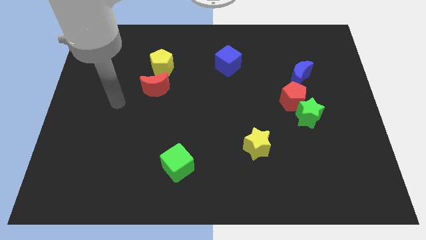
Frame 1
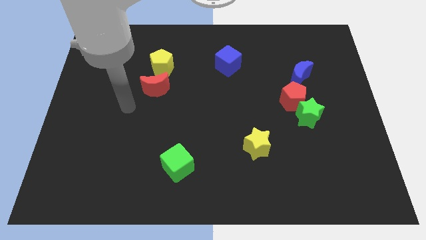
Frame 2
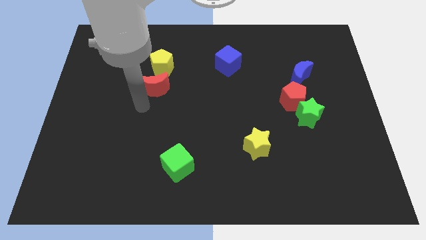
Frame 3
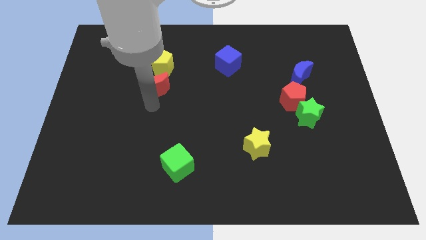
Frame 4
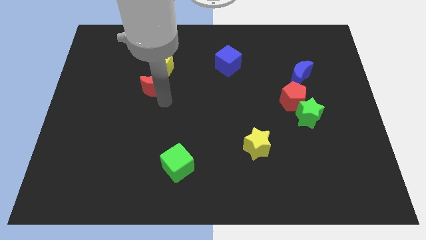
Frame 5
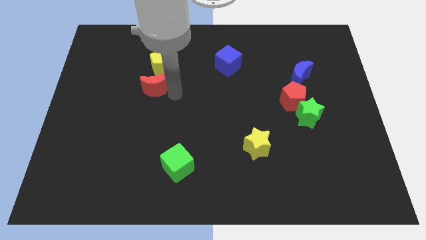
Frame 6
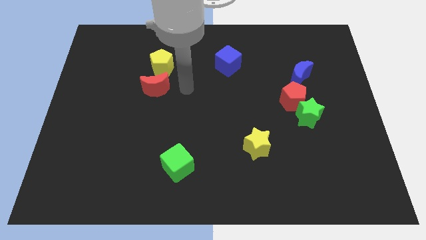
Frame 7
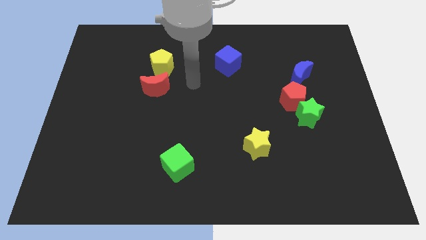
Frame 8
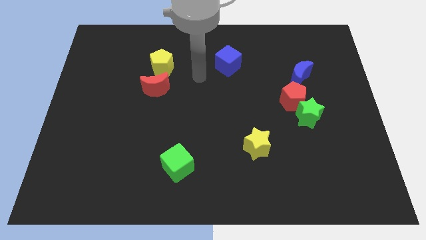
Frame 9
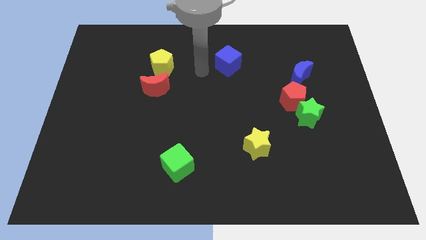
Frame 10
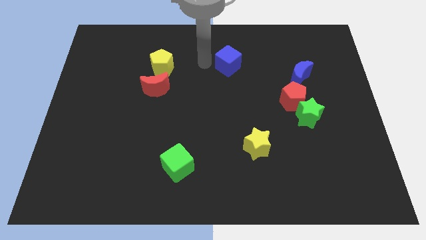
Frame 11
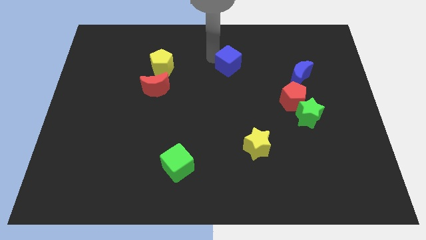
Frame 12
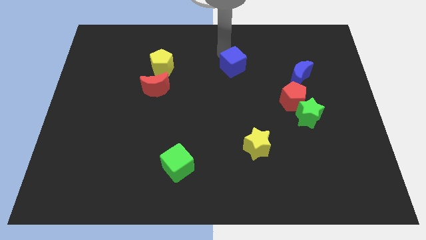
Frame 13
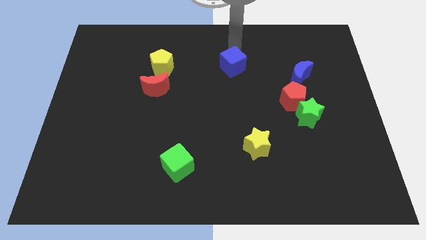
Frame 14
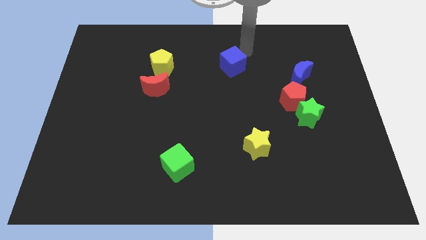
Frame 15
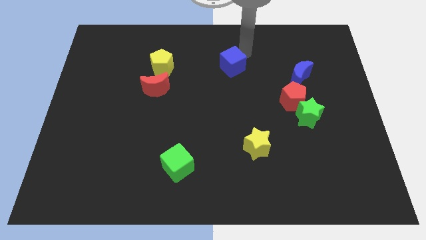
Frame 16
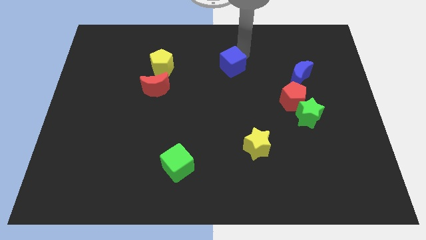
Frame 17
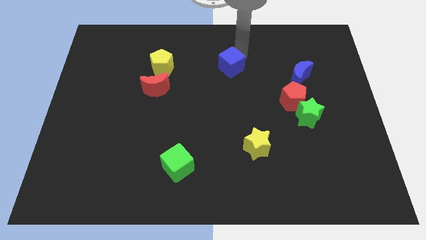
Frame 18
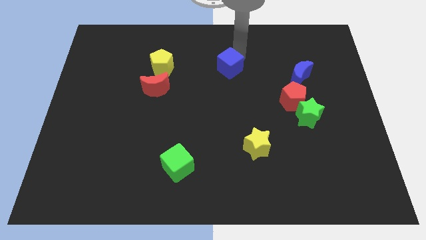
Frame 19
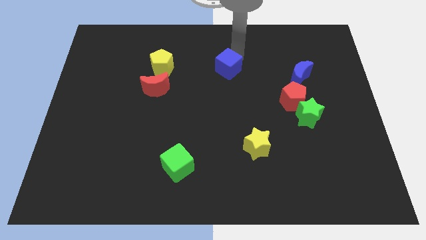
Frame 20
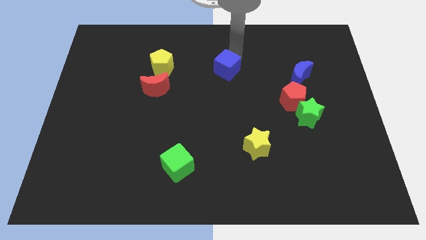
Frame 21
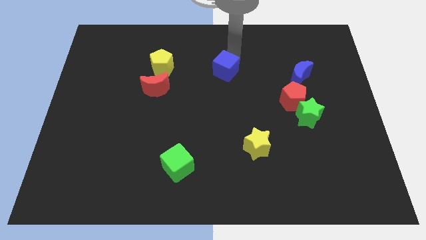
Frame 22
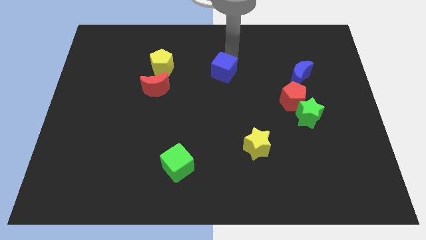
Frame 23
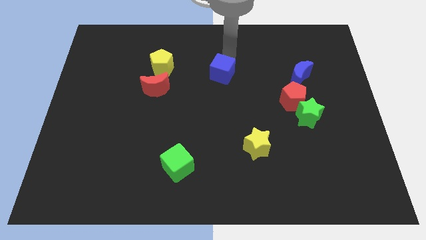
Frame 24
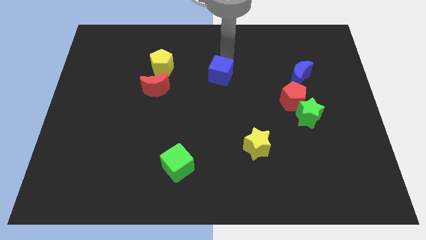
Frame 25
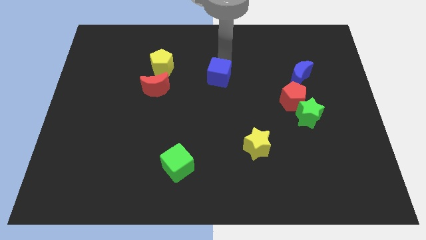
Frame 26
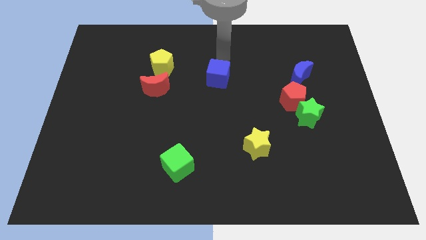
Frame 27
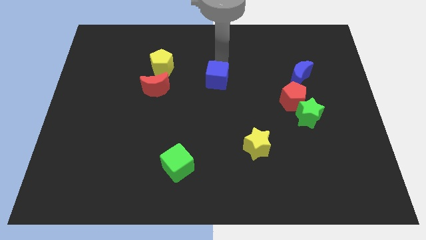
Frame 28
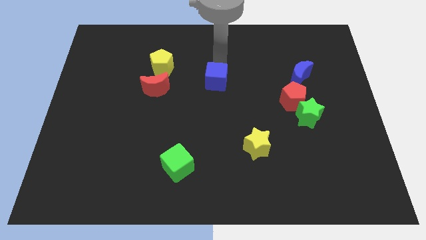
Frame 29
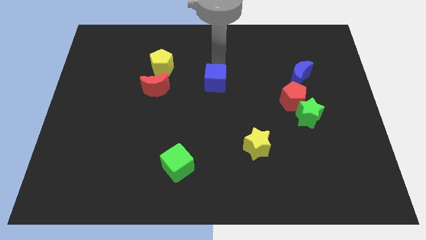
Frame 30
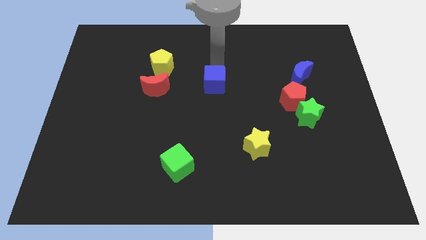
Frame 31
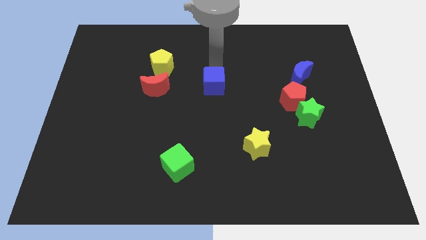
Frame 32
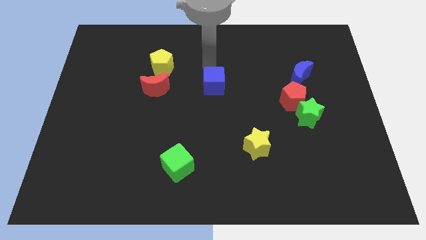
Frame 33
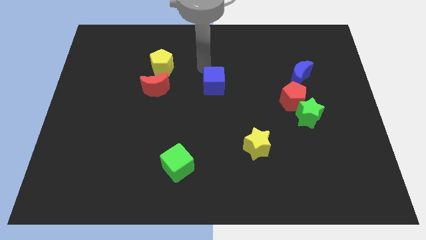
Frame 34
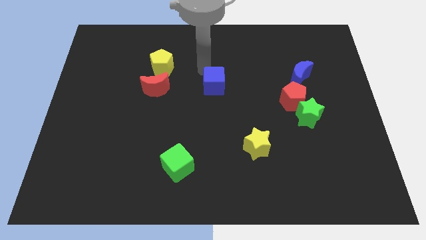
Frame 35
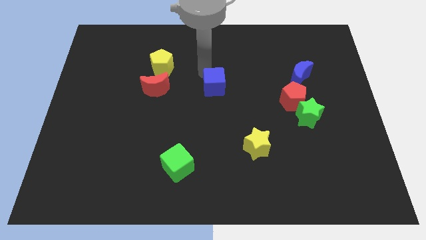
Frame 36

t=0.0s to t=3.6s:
move the blue cube down a little

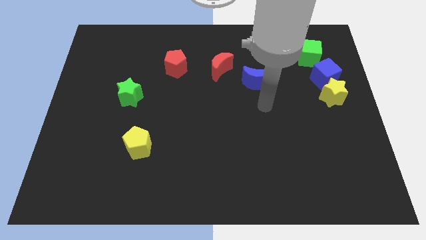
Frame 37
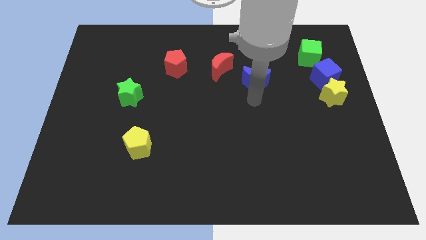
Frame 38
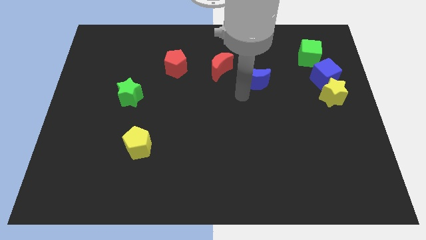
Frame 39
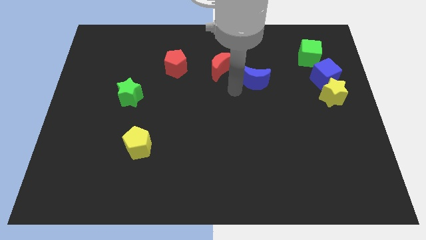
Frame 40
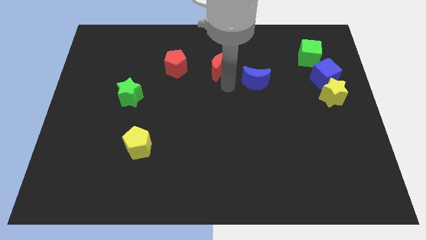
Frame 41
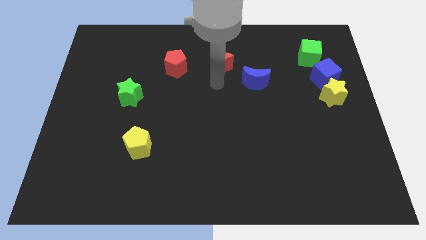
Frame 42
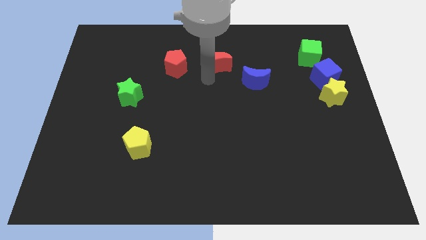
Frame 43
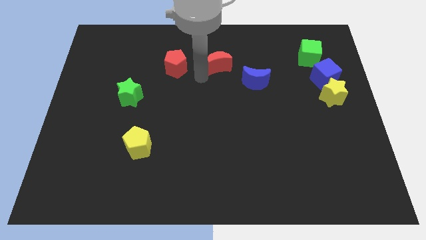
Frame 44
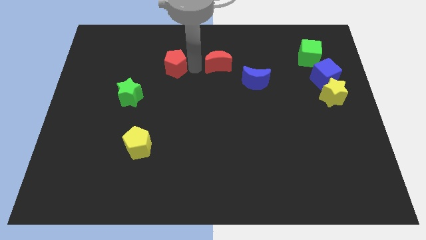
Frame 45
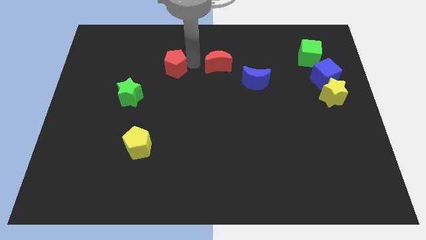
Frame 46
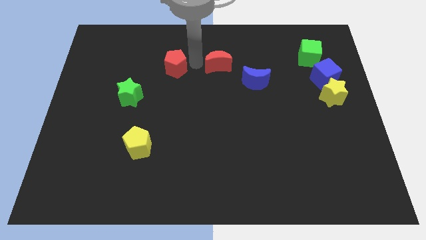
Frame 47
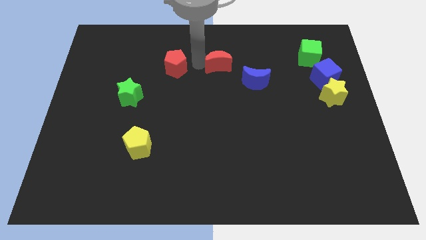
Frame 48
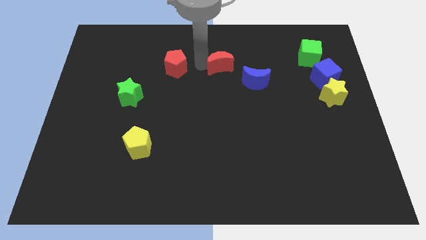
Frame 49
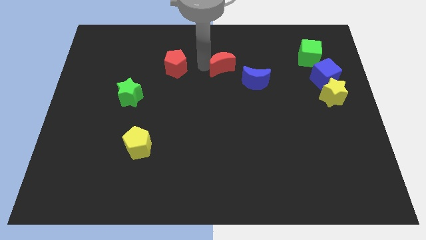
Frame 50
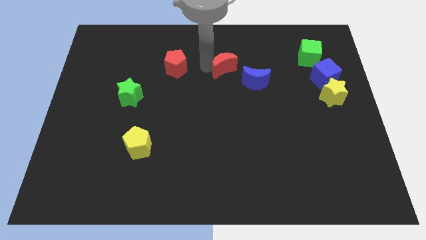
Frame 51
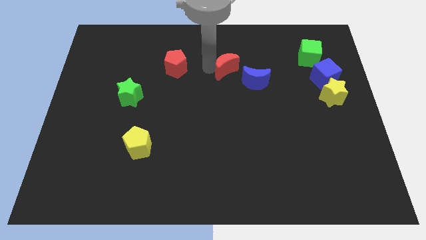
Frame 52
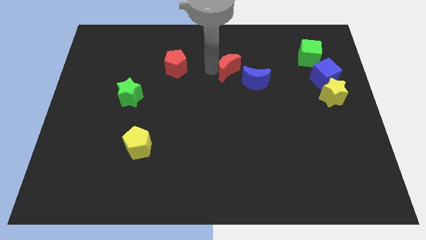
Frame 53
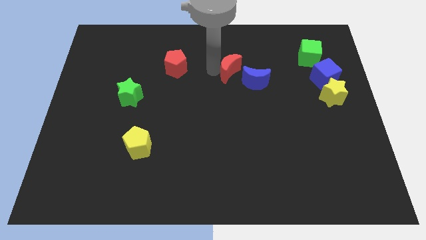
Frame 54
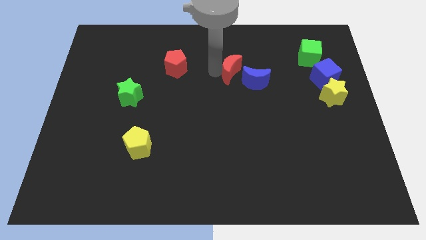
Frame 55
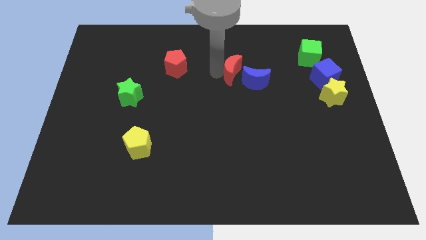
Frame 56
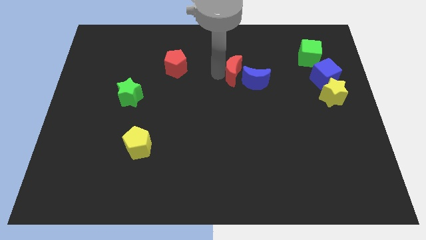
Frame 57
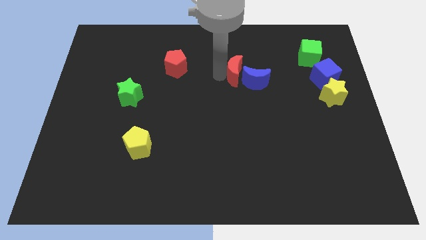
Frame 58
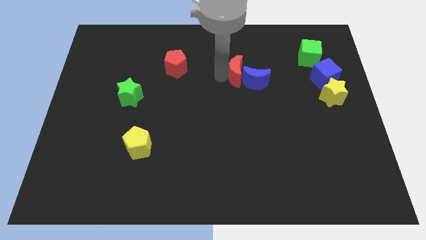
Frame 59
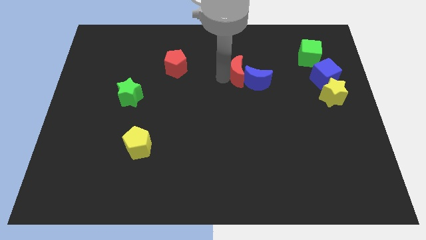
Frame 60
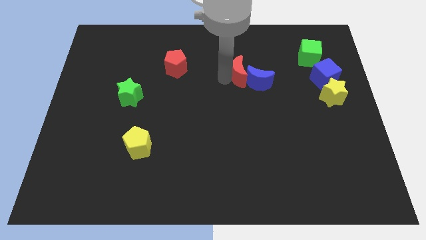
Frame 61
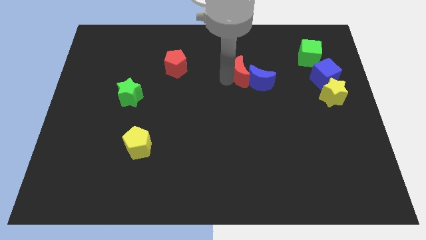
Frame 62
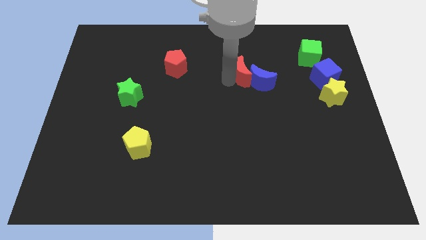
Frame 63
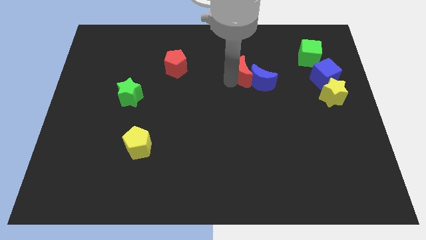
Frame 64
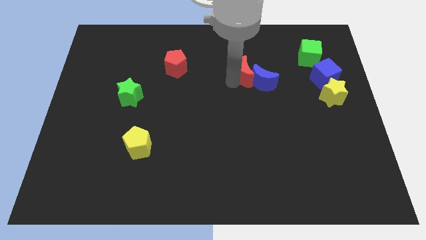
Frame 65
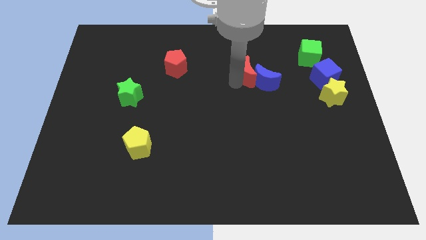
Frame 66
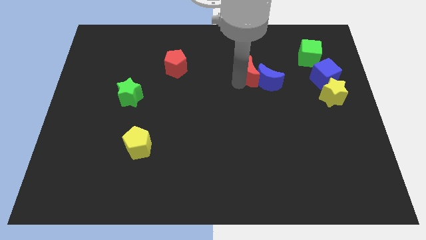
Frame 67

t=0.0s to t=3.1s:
slightly slide the red moon to the right

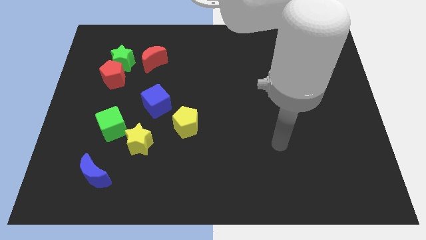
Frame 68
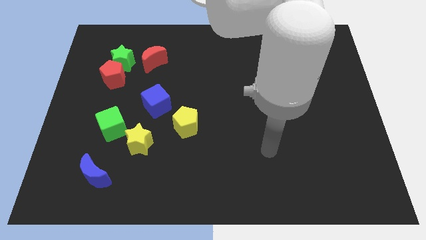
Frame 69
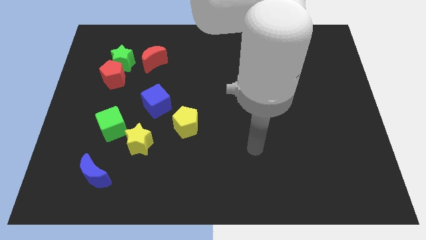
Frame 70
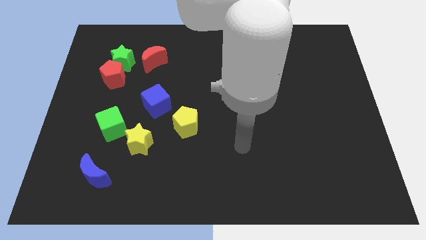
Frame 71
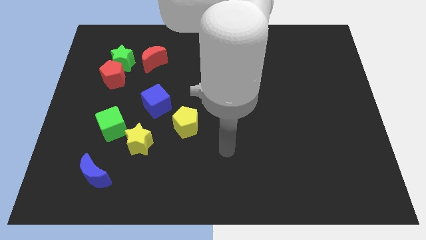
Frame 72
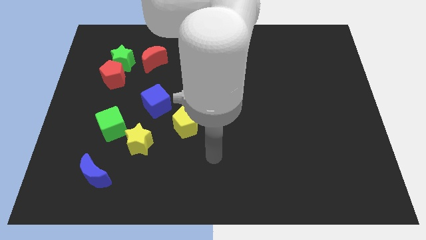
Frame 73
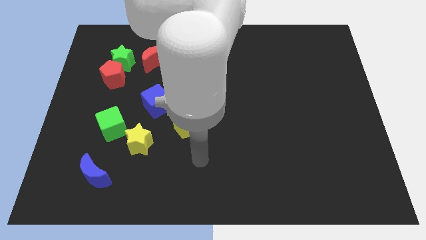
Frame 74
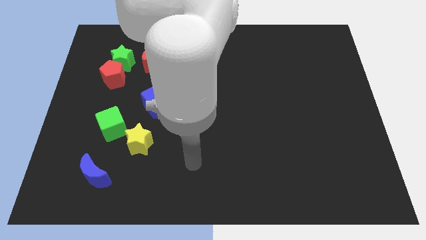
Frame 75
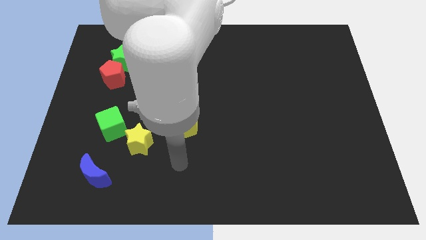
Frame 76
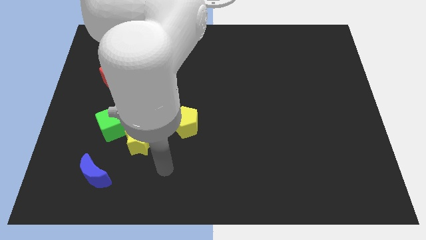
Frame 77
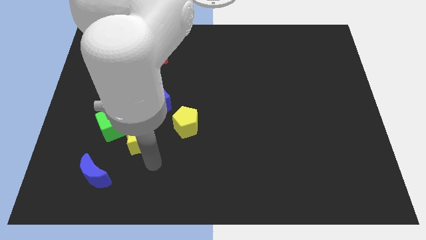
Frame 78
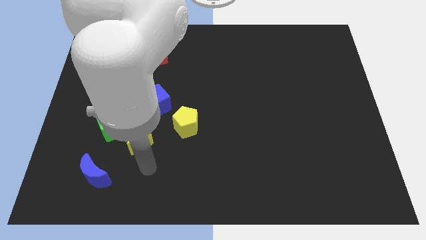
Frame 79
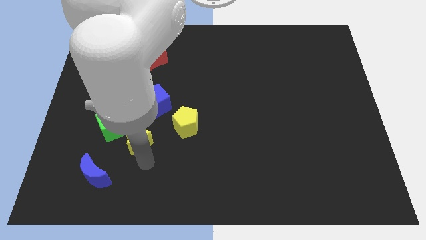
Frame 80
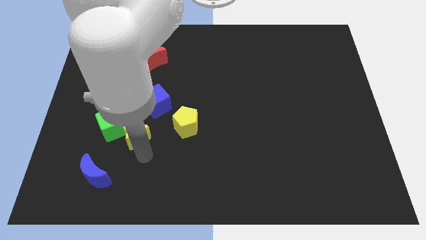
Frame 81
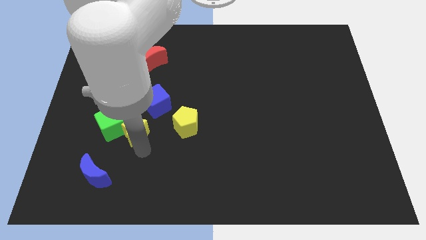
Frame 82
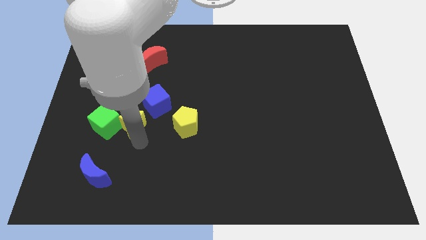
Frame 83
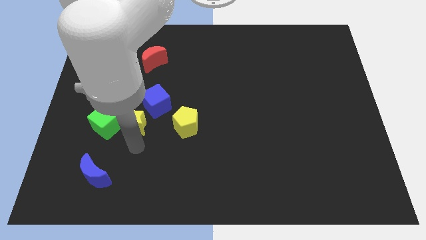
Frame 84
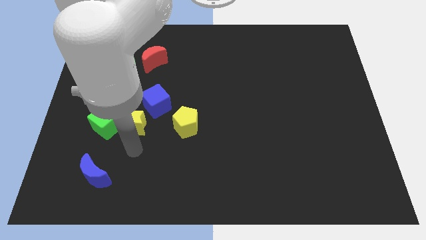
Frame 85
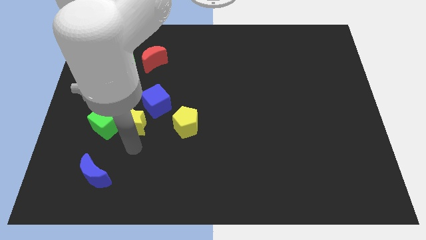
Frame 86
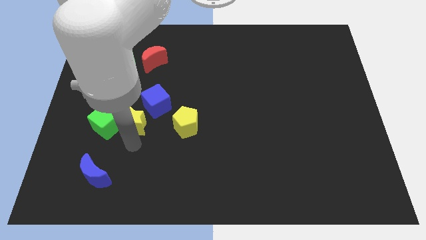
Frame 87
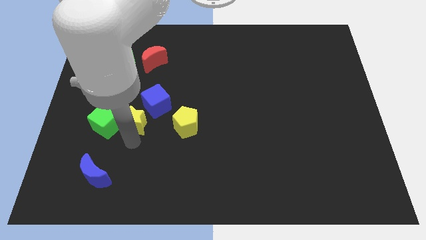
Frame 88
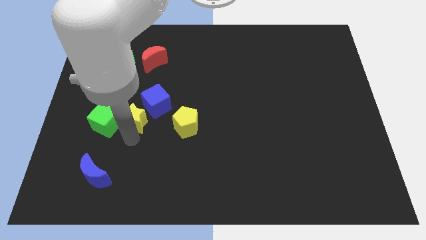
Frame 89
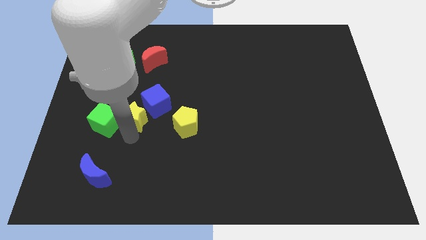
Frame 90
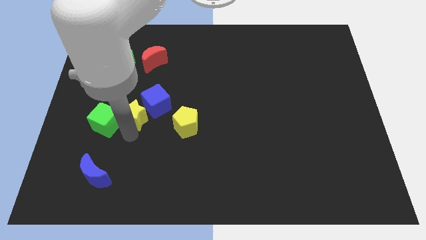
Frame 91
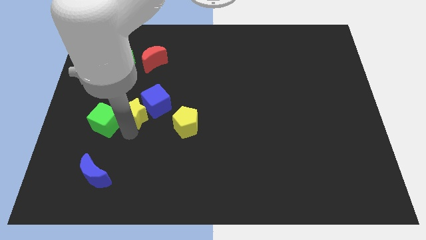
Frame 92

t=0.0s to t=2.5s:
move the yellow star a little bit upwards
